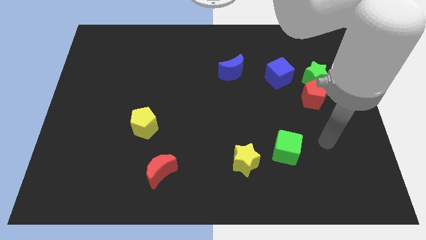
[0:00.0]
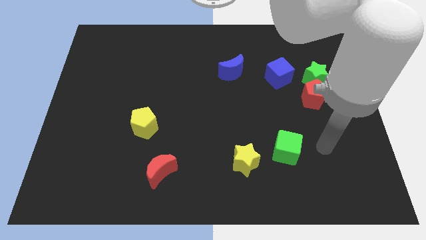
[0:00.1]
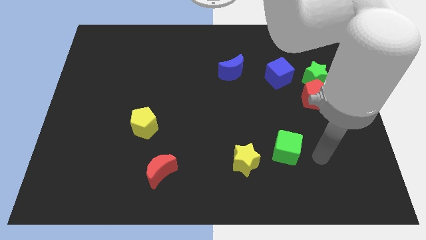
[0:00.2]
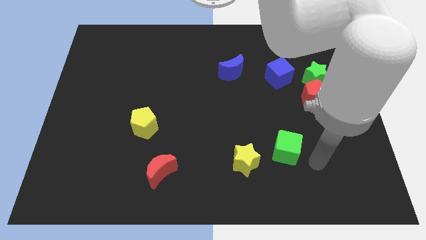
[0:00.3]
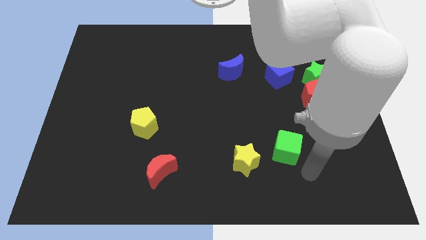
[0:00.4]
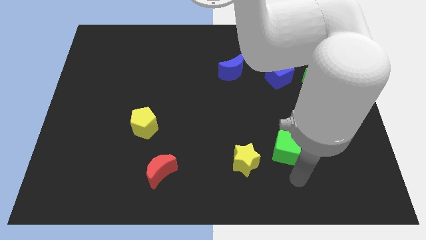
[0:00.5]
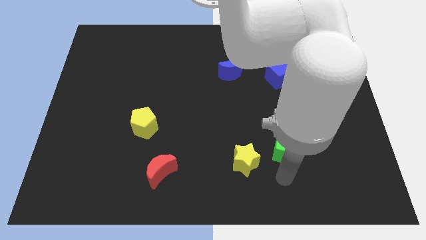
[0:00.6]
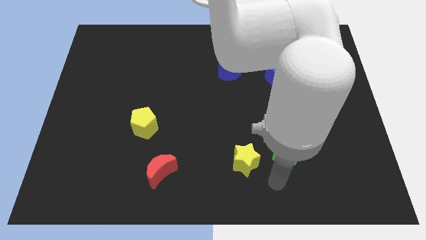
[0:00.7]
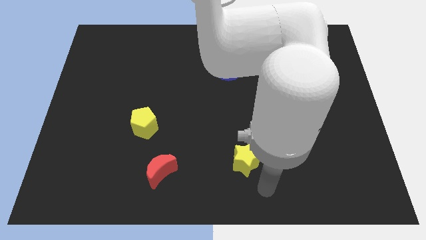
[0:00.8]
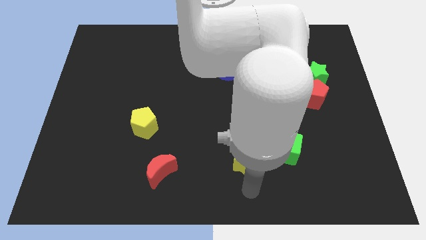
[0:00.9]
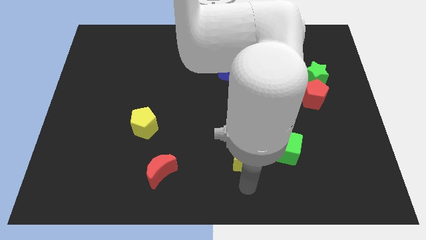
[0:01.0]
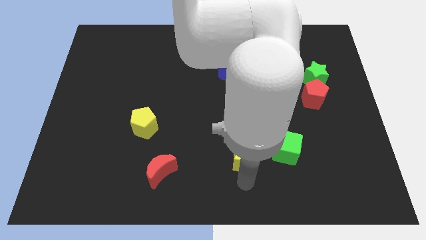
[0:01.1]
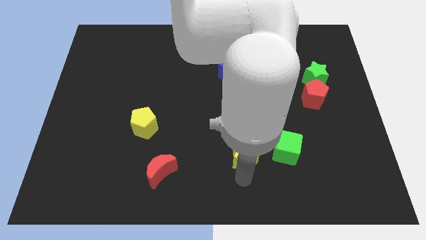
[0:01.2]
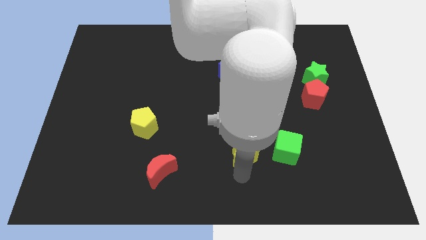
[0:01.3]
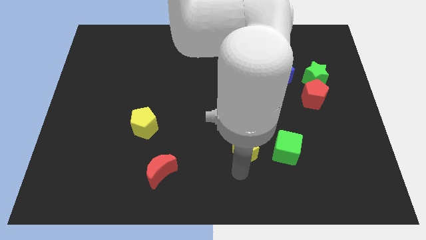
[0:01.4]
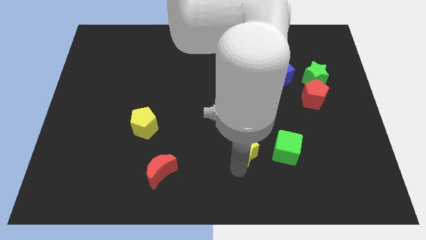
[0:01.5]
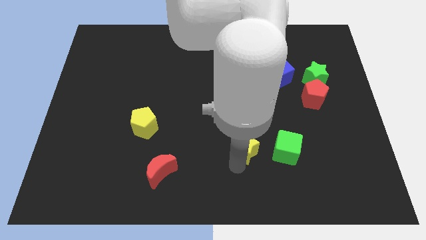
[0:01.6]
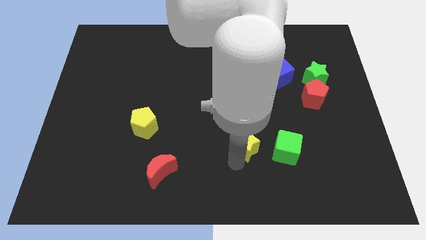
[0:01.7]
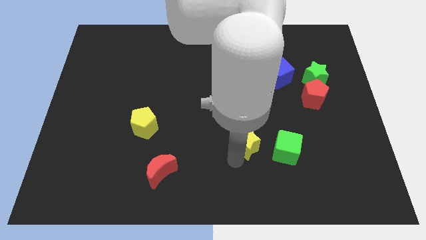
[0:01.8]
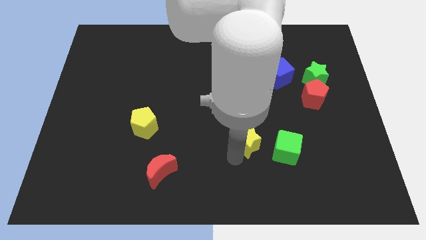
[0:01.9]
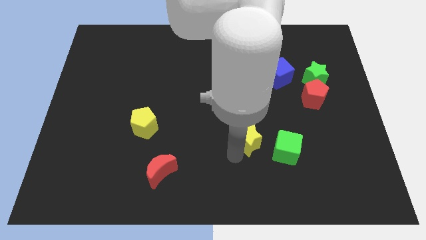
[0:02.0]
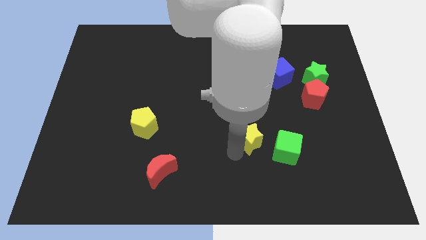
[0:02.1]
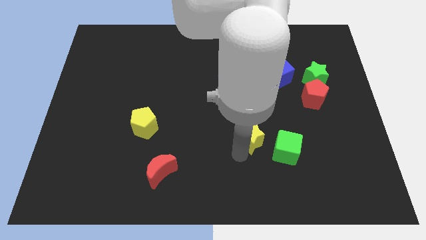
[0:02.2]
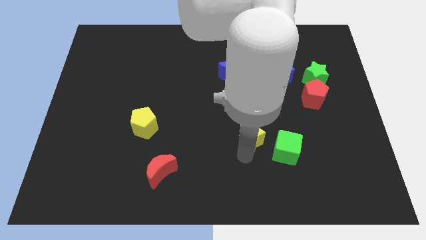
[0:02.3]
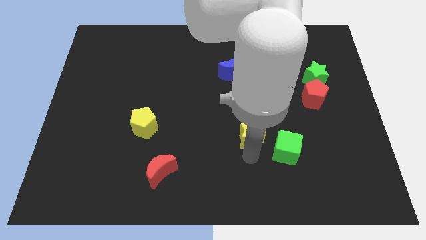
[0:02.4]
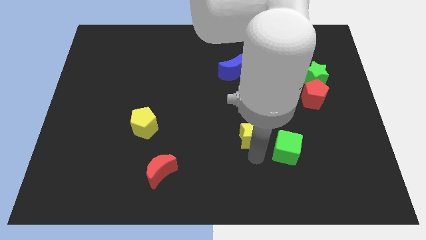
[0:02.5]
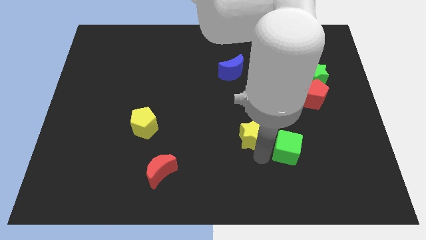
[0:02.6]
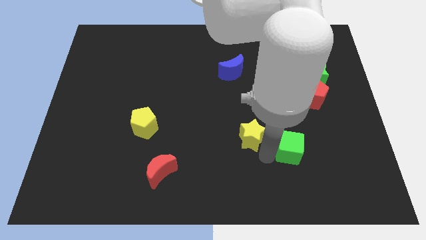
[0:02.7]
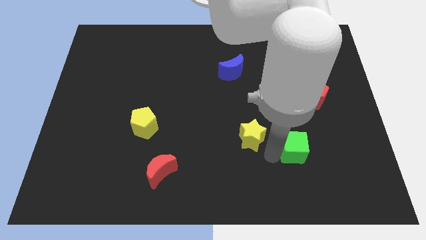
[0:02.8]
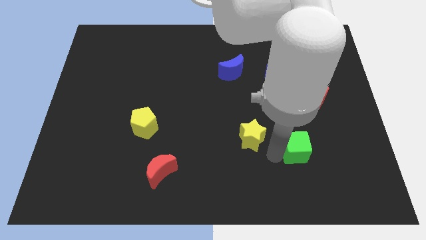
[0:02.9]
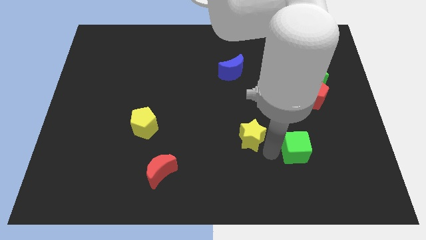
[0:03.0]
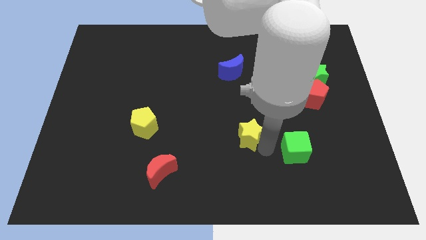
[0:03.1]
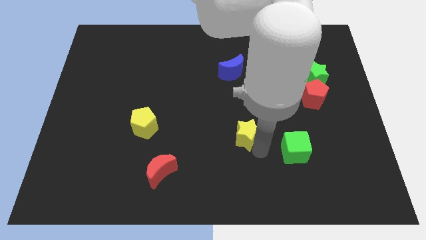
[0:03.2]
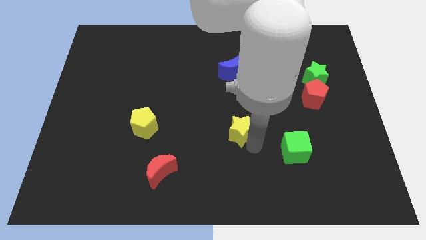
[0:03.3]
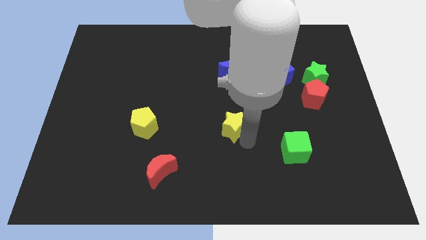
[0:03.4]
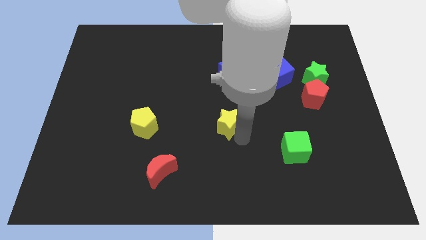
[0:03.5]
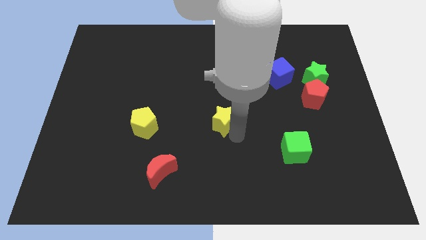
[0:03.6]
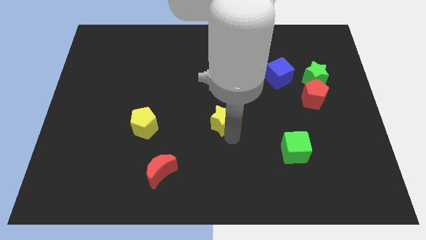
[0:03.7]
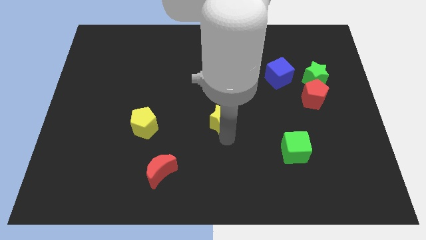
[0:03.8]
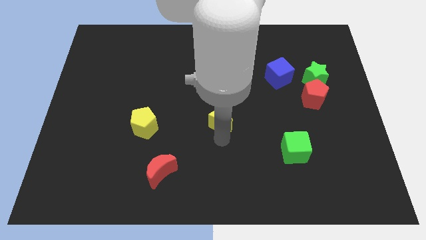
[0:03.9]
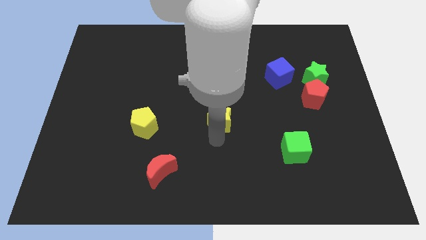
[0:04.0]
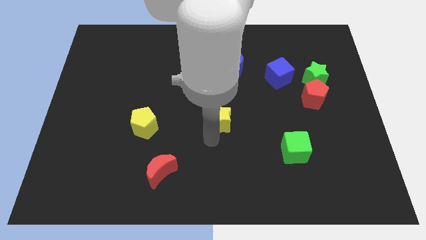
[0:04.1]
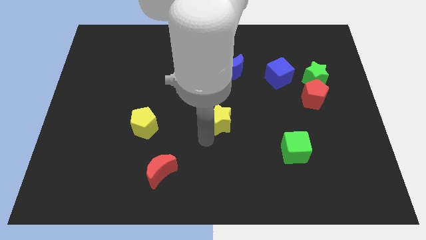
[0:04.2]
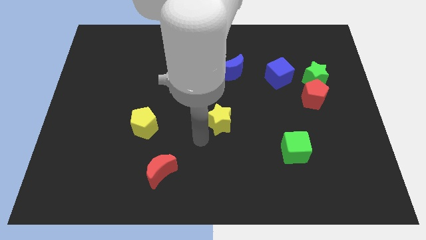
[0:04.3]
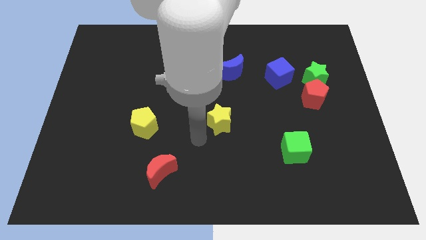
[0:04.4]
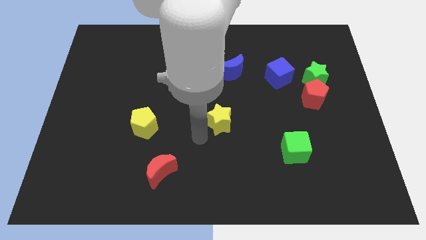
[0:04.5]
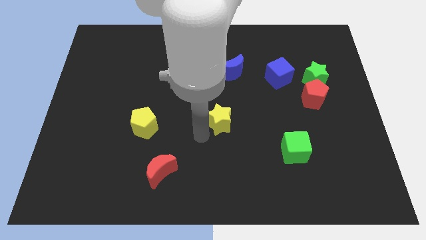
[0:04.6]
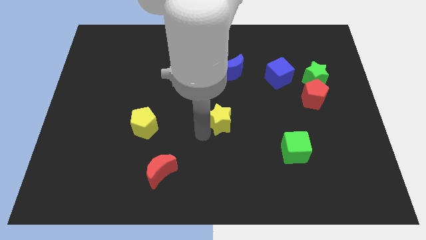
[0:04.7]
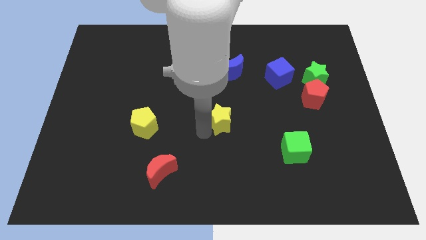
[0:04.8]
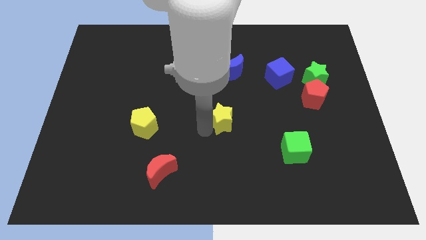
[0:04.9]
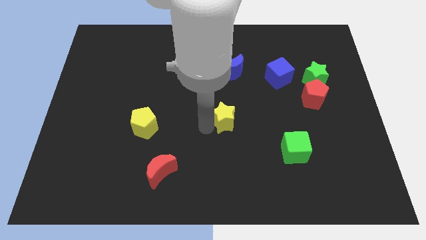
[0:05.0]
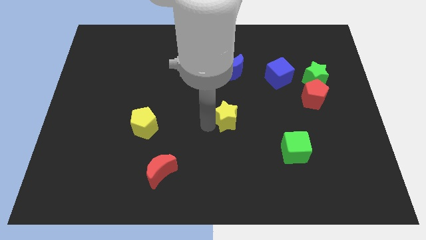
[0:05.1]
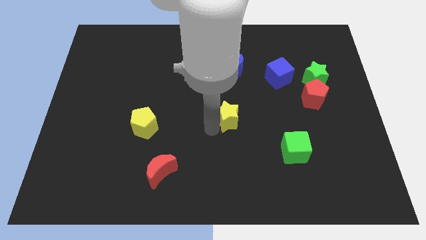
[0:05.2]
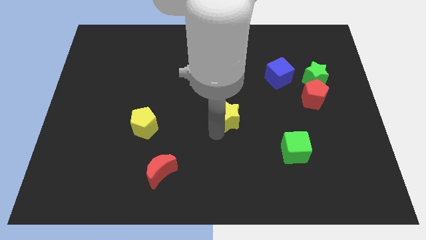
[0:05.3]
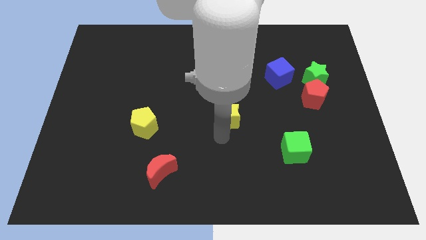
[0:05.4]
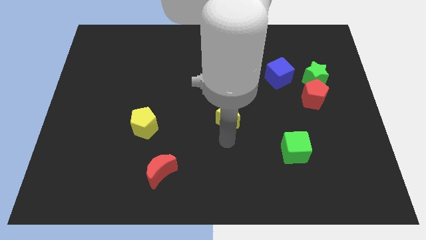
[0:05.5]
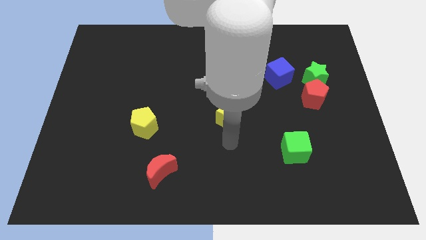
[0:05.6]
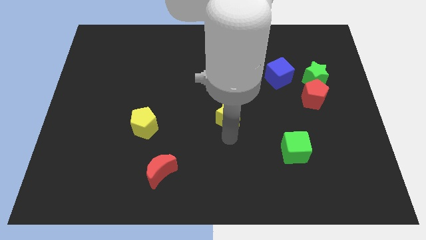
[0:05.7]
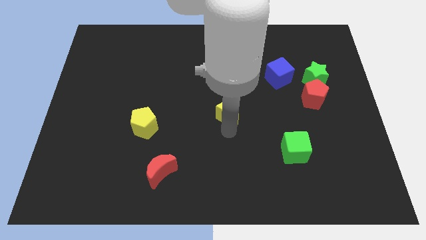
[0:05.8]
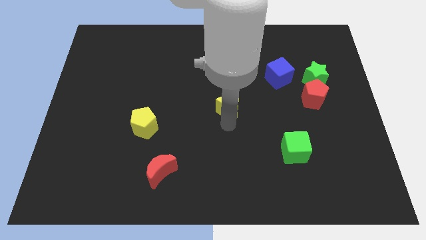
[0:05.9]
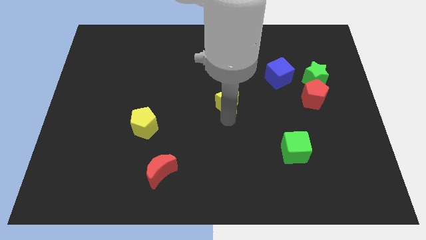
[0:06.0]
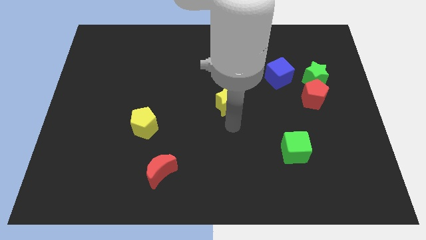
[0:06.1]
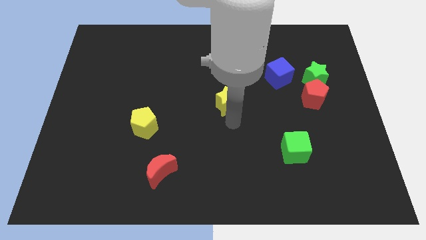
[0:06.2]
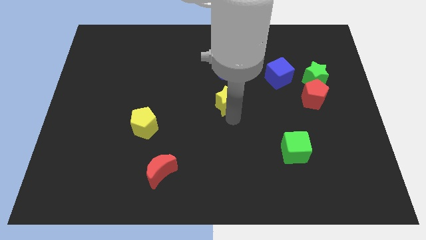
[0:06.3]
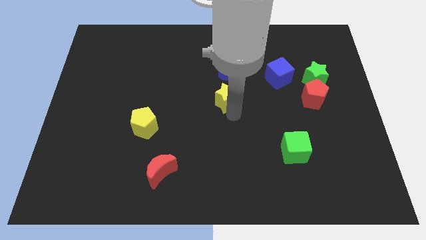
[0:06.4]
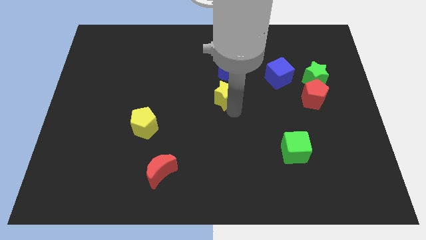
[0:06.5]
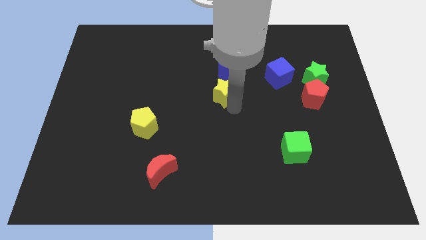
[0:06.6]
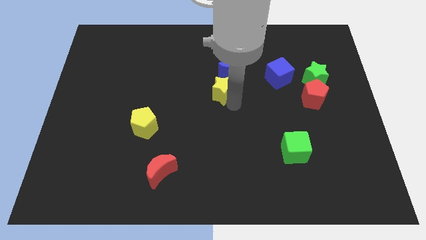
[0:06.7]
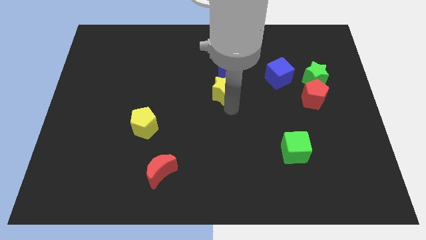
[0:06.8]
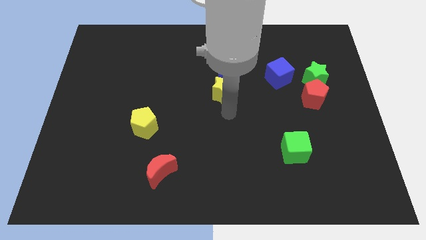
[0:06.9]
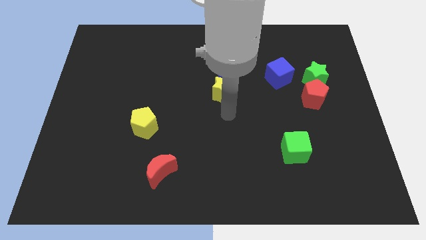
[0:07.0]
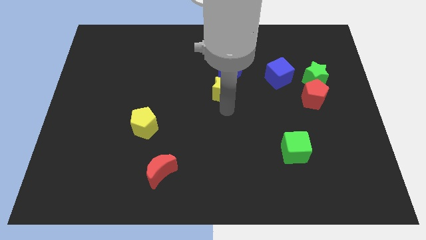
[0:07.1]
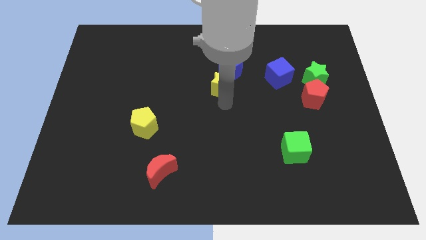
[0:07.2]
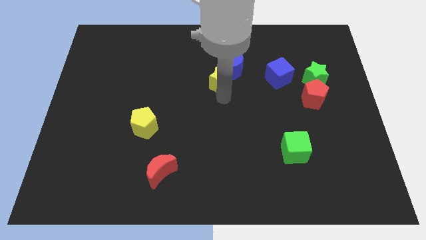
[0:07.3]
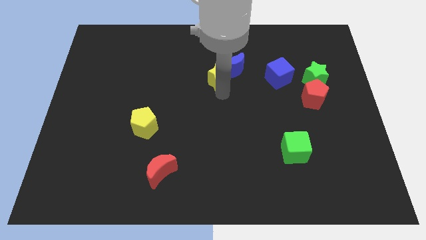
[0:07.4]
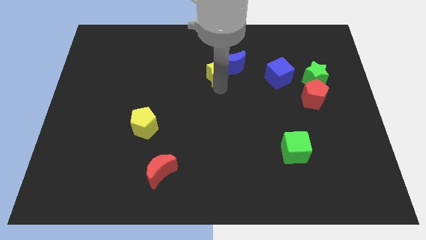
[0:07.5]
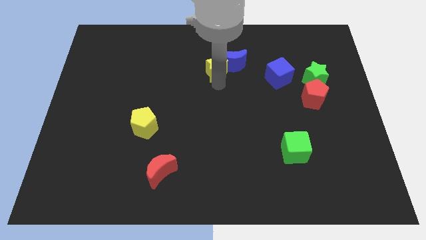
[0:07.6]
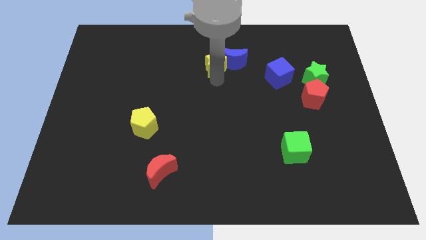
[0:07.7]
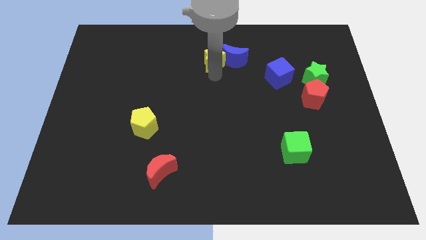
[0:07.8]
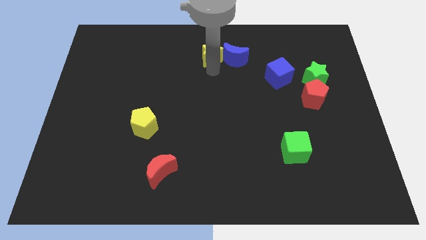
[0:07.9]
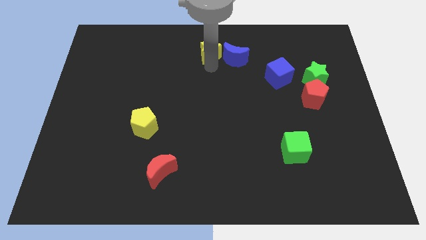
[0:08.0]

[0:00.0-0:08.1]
slide the yellow star to the top side
